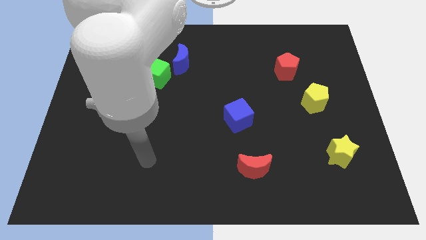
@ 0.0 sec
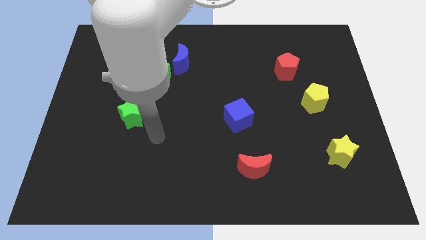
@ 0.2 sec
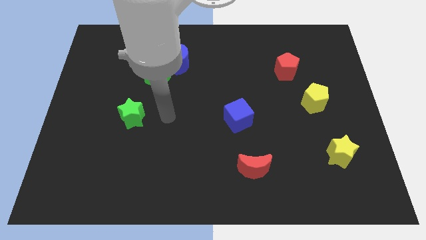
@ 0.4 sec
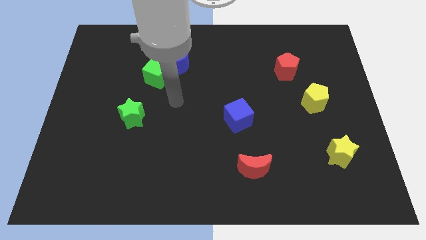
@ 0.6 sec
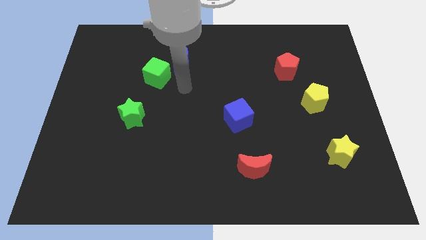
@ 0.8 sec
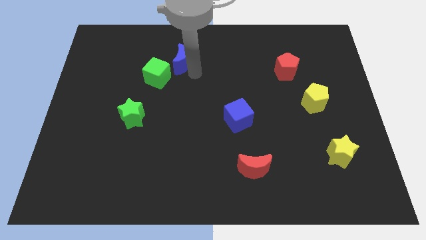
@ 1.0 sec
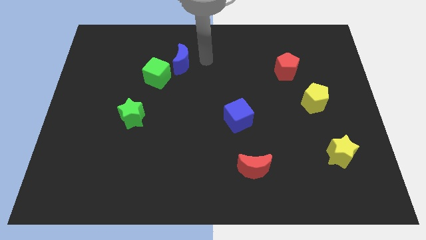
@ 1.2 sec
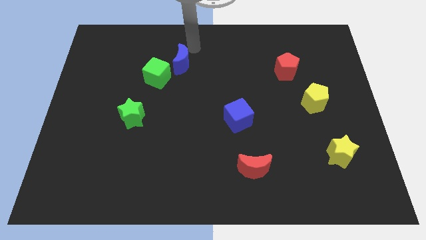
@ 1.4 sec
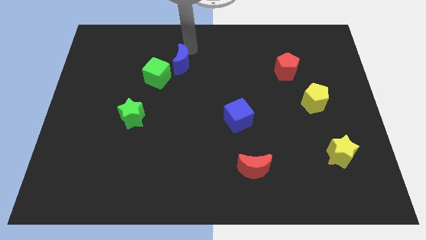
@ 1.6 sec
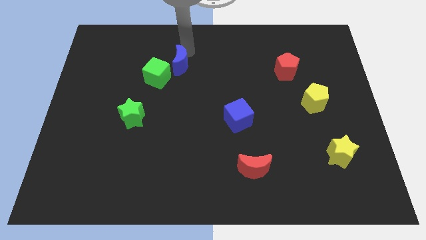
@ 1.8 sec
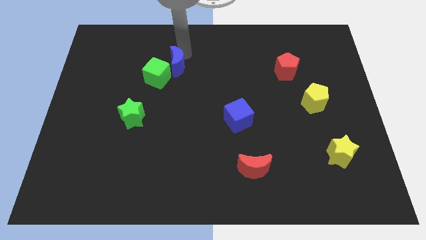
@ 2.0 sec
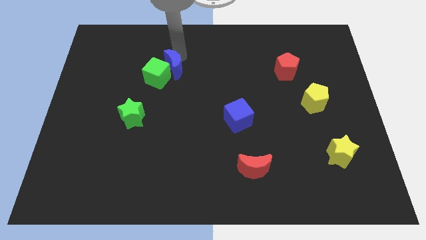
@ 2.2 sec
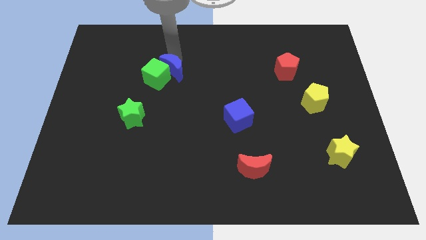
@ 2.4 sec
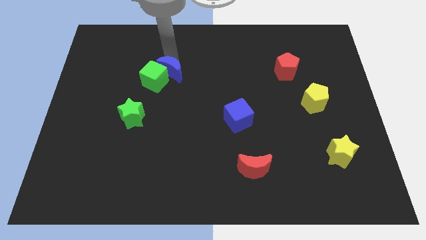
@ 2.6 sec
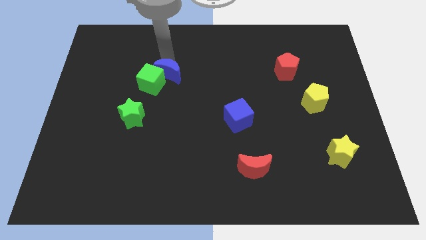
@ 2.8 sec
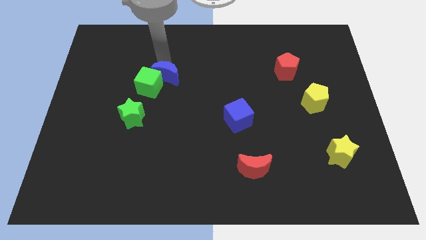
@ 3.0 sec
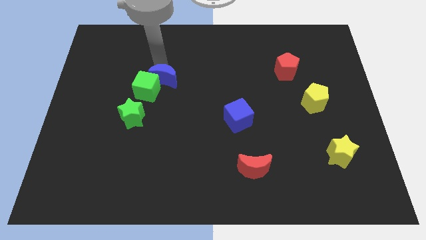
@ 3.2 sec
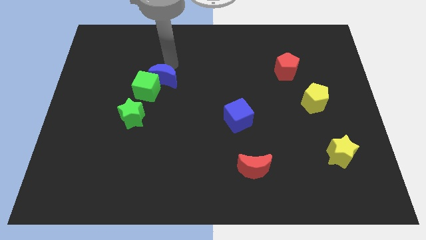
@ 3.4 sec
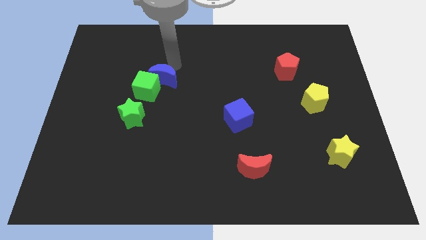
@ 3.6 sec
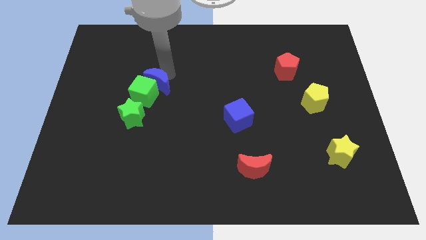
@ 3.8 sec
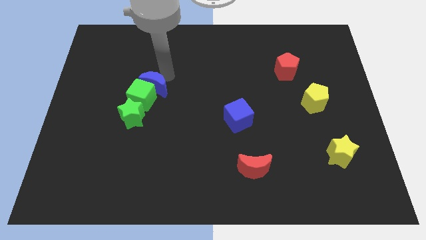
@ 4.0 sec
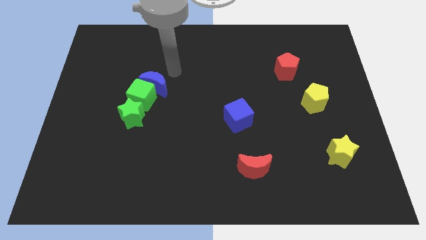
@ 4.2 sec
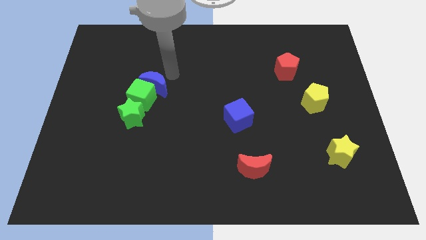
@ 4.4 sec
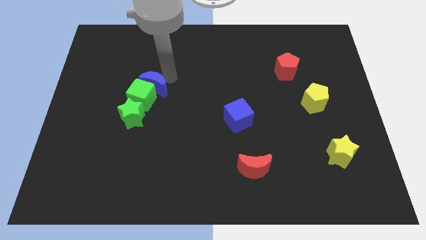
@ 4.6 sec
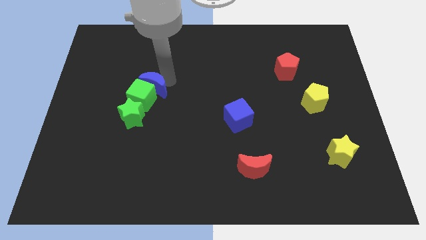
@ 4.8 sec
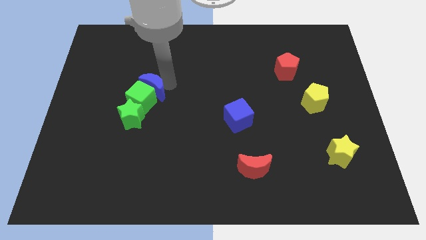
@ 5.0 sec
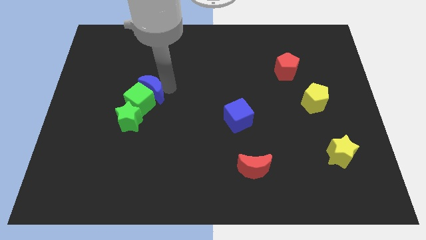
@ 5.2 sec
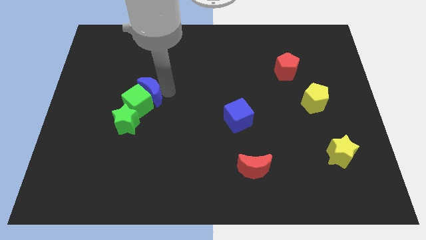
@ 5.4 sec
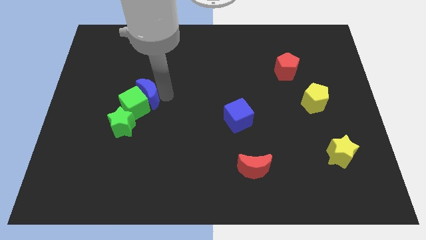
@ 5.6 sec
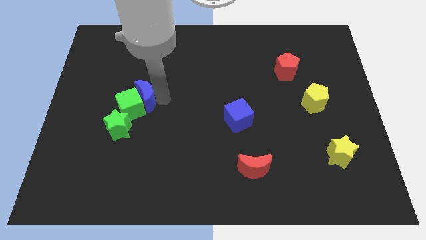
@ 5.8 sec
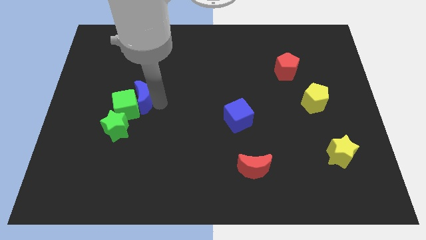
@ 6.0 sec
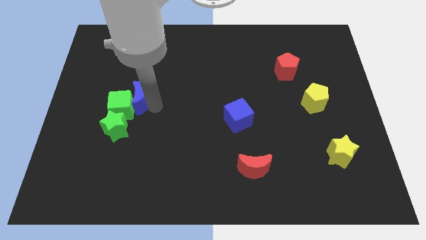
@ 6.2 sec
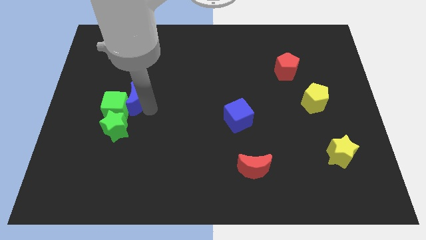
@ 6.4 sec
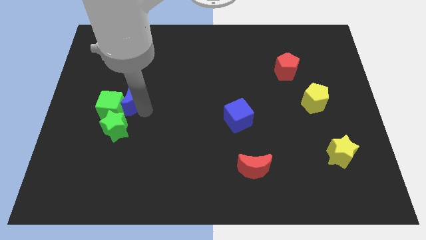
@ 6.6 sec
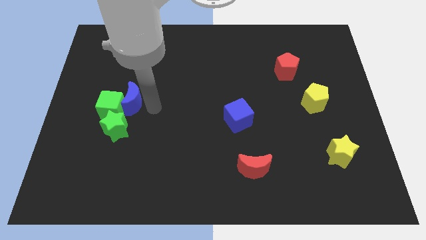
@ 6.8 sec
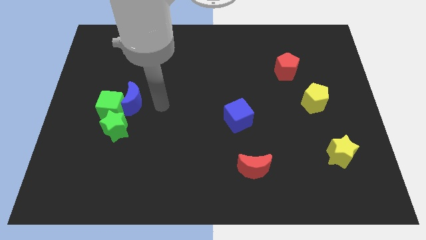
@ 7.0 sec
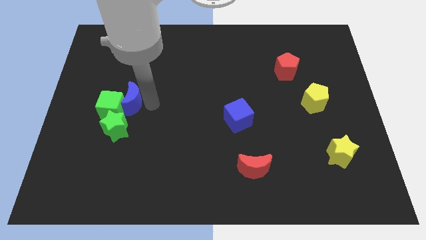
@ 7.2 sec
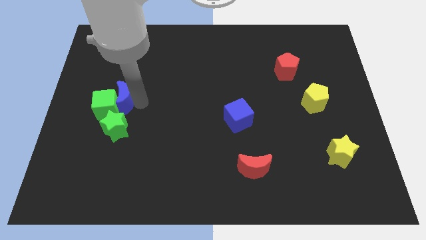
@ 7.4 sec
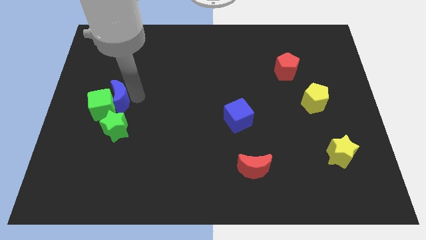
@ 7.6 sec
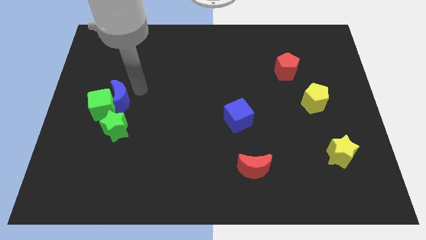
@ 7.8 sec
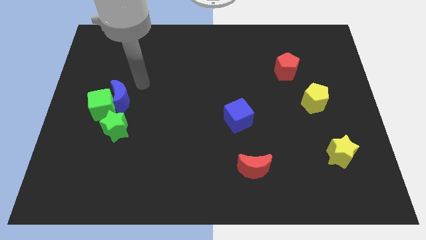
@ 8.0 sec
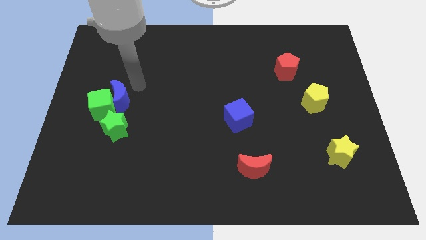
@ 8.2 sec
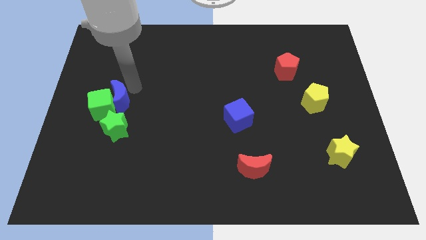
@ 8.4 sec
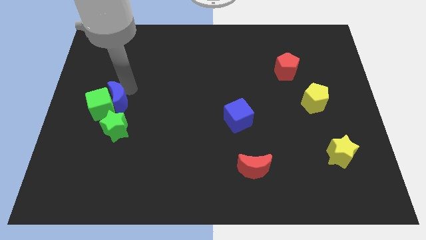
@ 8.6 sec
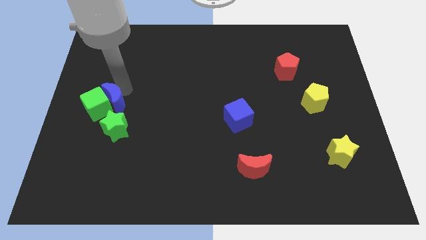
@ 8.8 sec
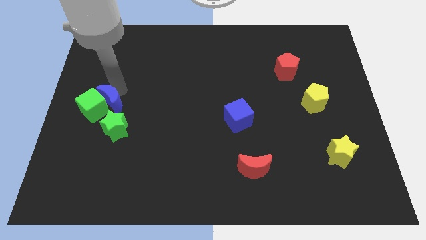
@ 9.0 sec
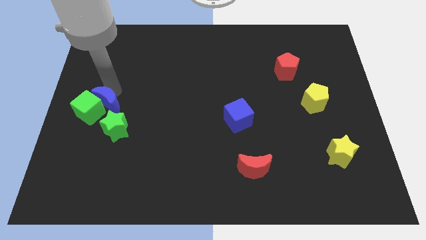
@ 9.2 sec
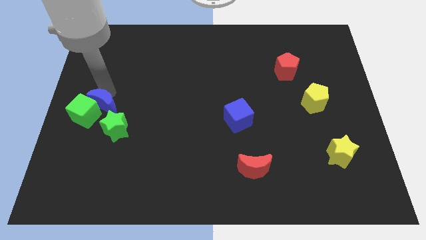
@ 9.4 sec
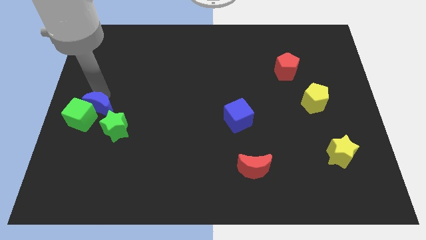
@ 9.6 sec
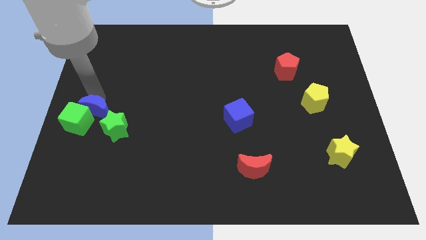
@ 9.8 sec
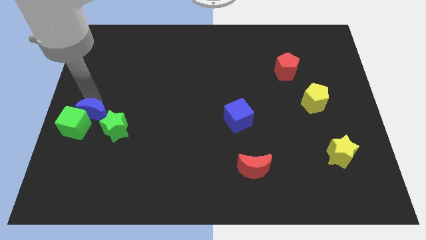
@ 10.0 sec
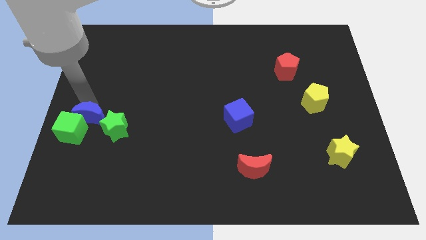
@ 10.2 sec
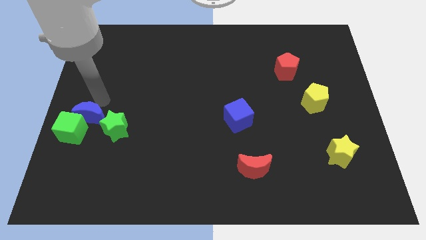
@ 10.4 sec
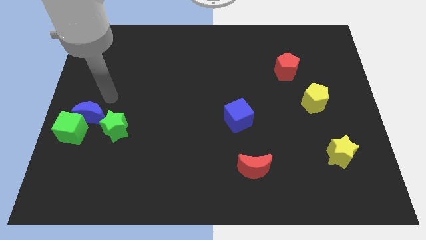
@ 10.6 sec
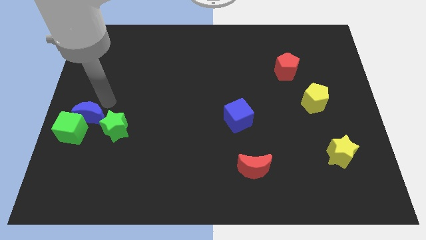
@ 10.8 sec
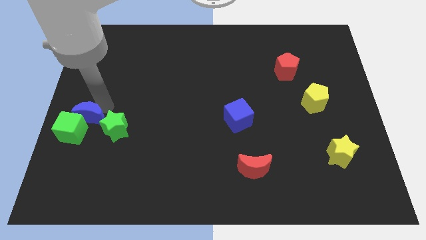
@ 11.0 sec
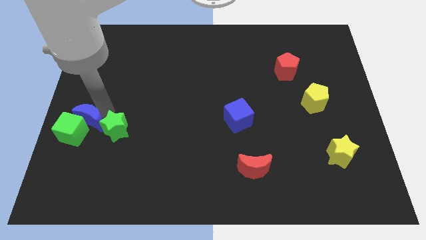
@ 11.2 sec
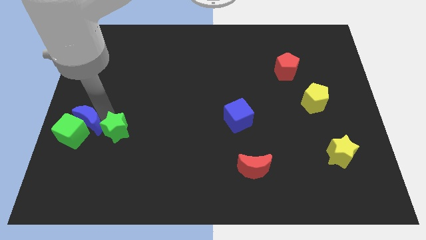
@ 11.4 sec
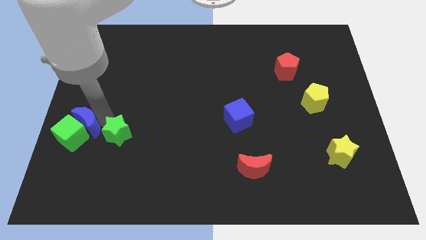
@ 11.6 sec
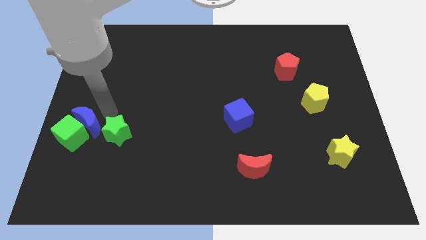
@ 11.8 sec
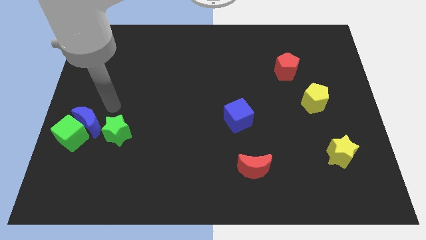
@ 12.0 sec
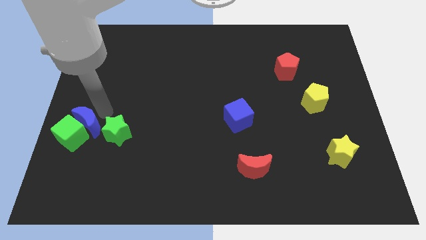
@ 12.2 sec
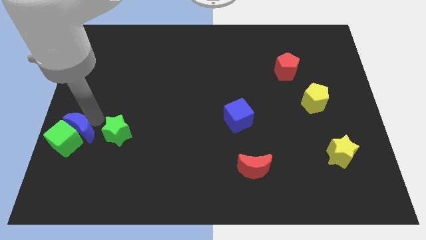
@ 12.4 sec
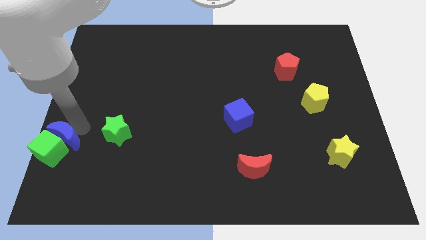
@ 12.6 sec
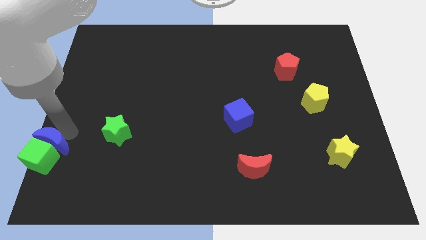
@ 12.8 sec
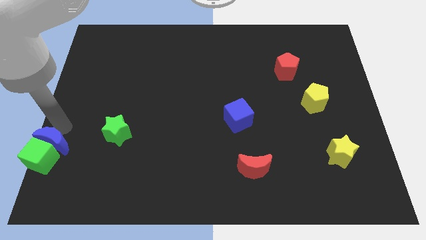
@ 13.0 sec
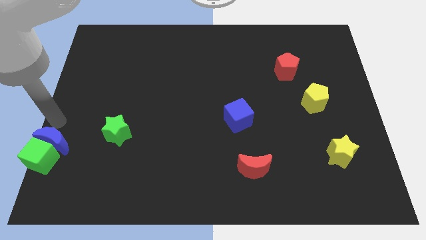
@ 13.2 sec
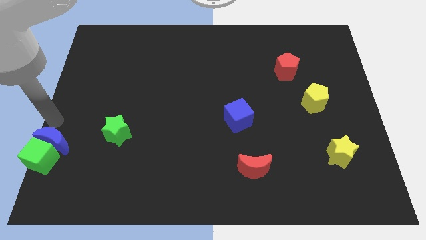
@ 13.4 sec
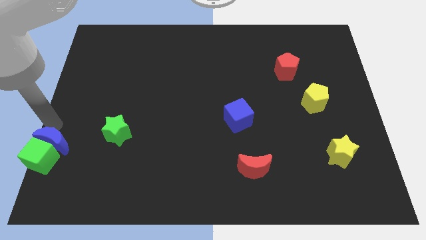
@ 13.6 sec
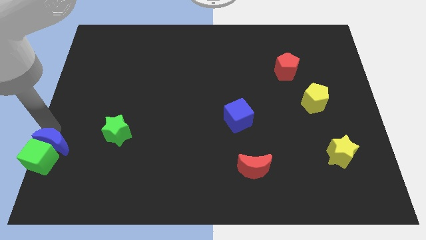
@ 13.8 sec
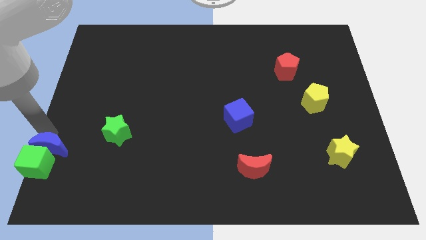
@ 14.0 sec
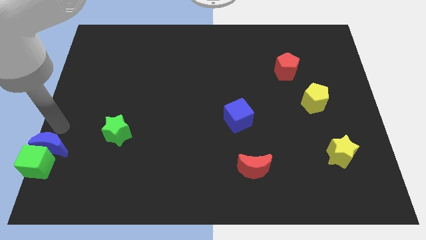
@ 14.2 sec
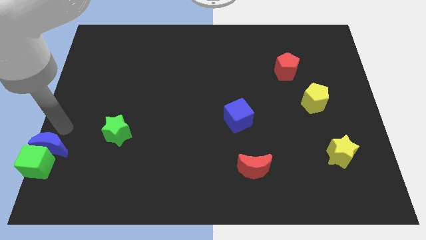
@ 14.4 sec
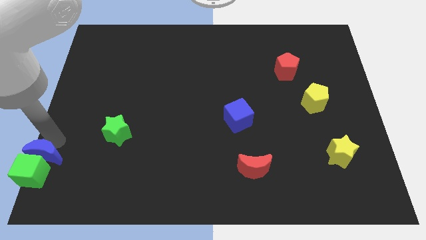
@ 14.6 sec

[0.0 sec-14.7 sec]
put the blue moon to the bottom left
